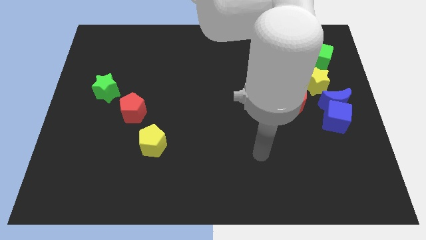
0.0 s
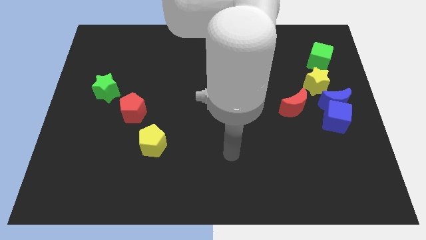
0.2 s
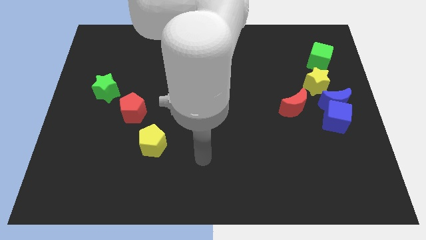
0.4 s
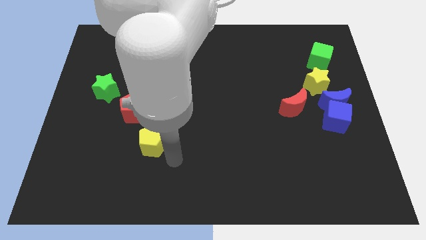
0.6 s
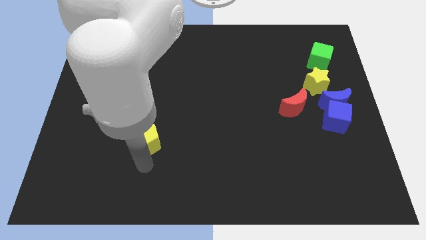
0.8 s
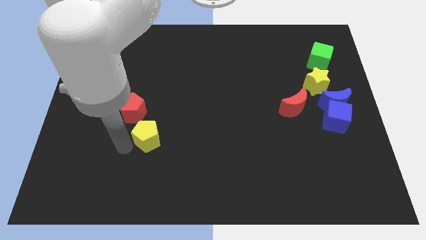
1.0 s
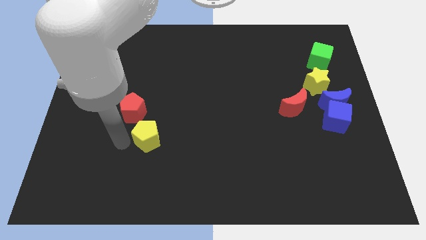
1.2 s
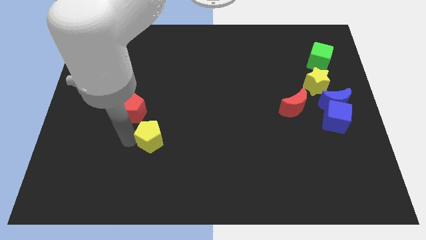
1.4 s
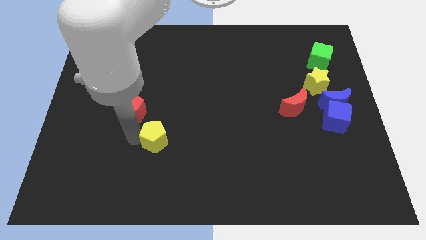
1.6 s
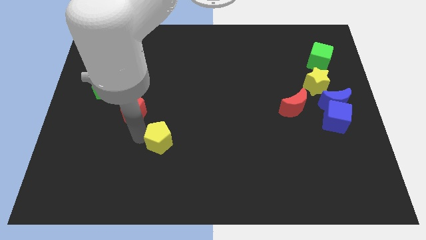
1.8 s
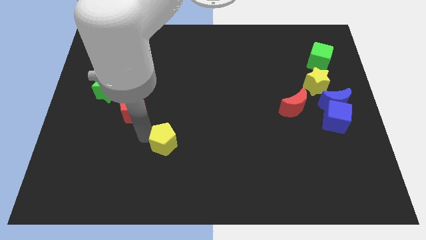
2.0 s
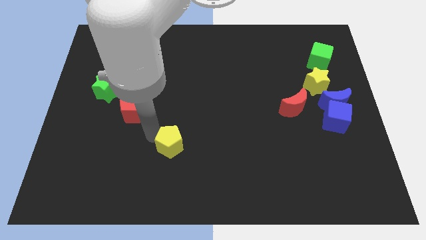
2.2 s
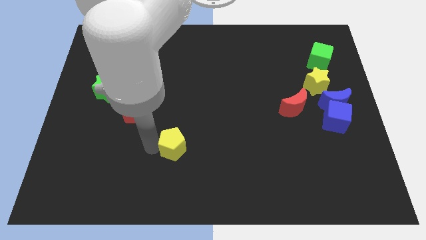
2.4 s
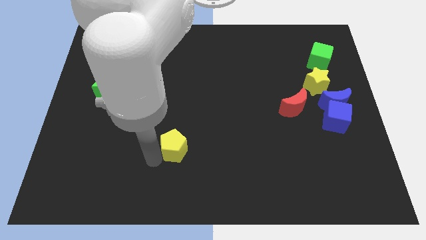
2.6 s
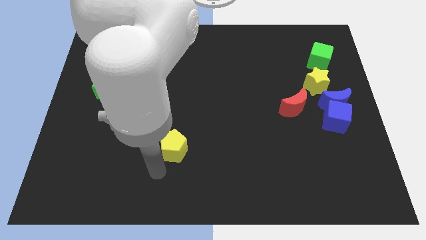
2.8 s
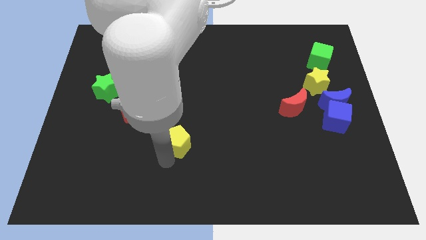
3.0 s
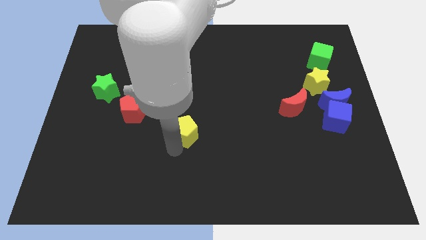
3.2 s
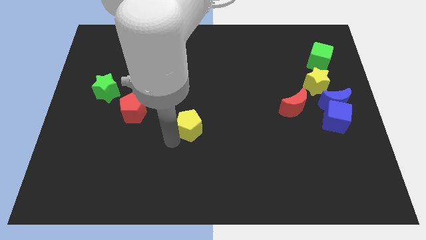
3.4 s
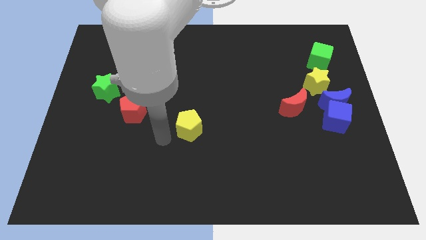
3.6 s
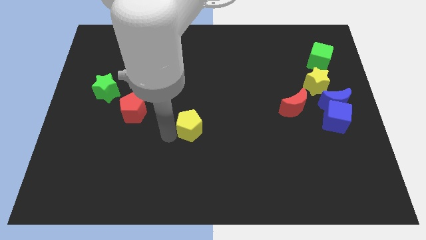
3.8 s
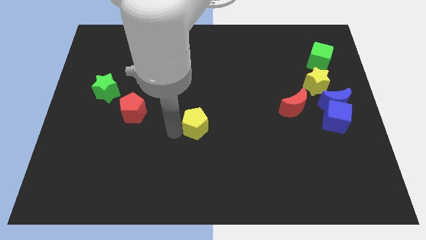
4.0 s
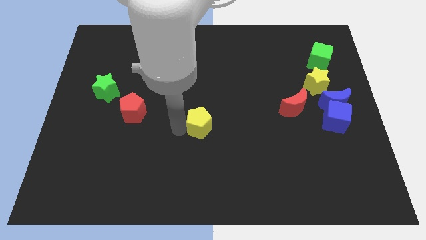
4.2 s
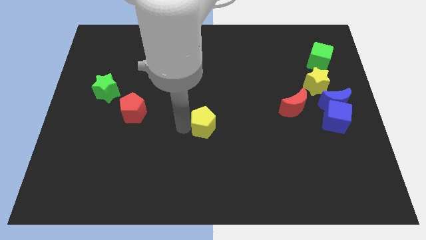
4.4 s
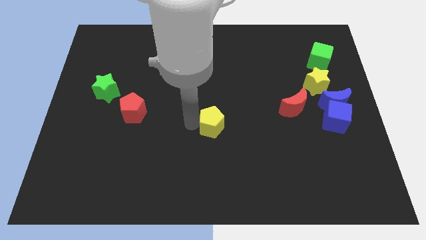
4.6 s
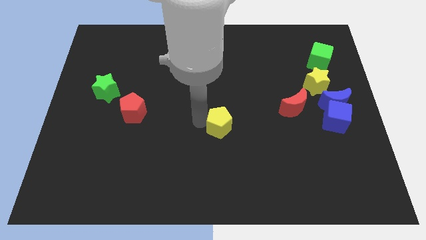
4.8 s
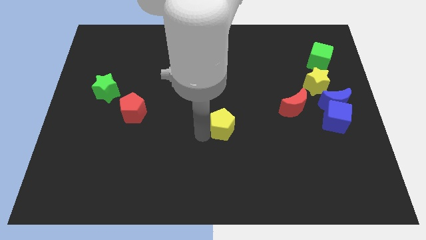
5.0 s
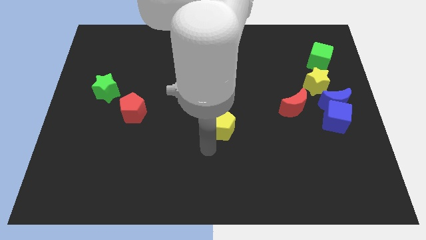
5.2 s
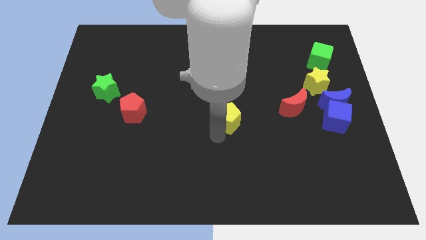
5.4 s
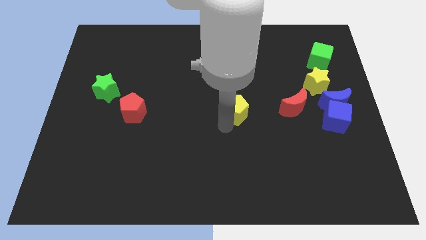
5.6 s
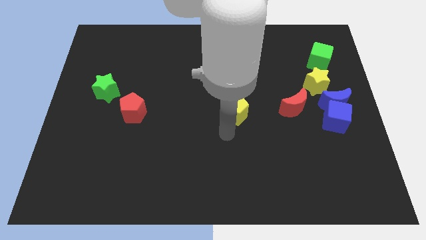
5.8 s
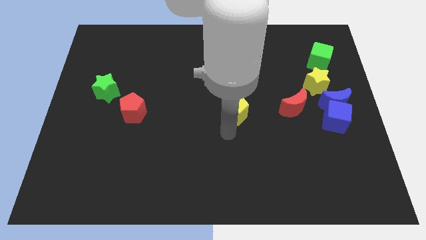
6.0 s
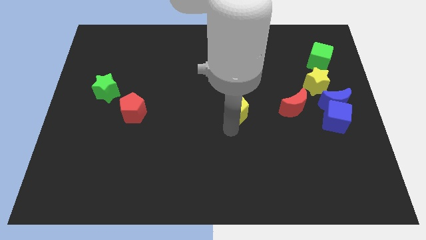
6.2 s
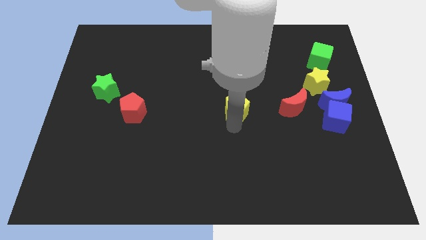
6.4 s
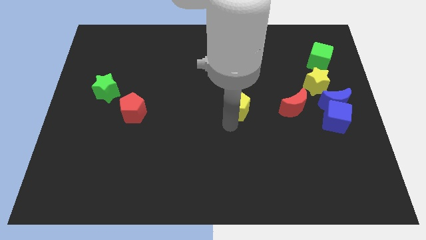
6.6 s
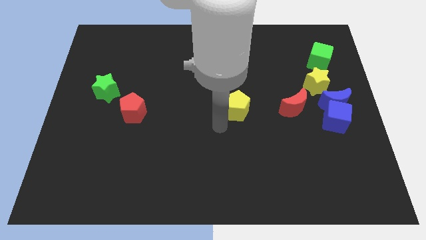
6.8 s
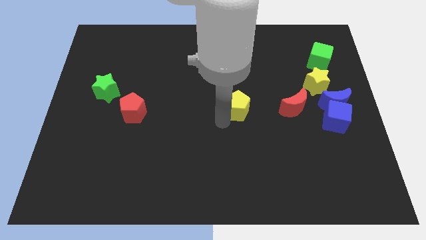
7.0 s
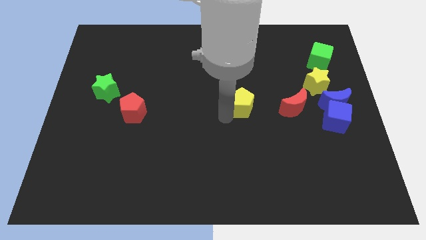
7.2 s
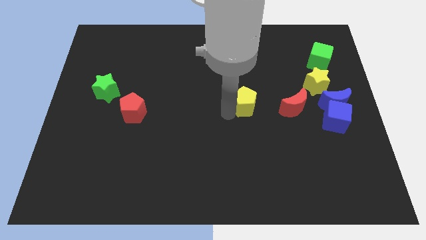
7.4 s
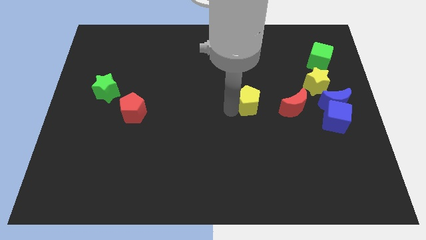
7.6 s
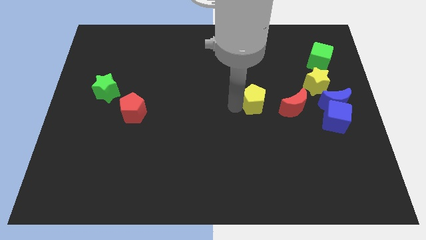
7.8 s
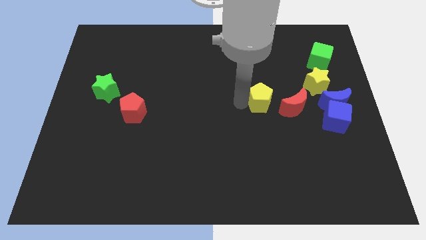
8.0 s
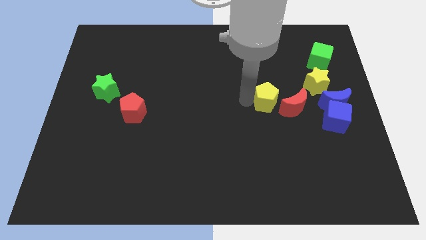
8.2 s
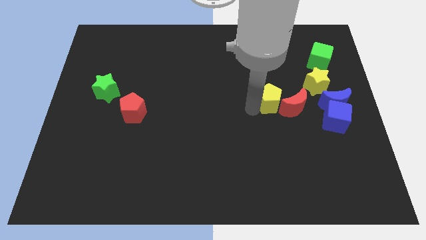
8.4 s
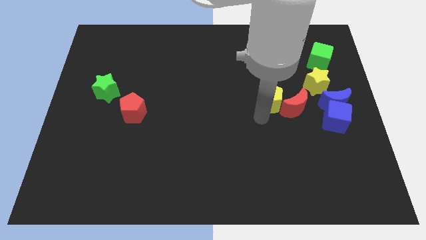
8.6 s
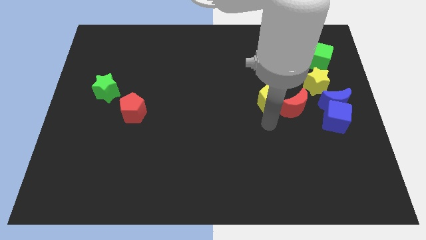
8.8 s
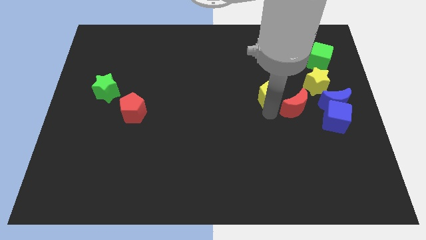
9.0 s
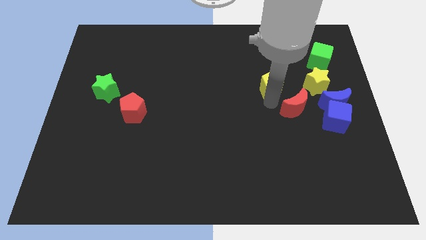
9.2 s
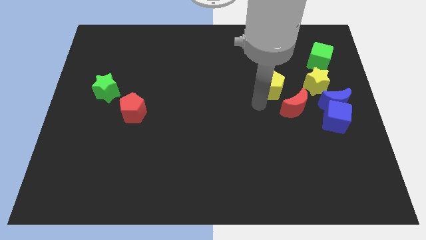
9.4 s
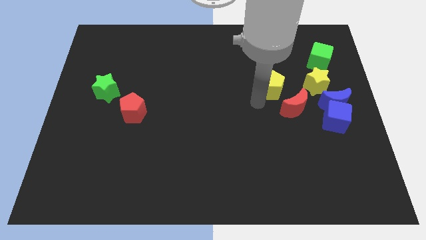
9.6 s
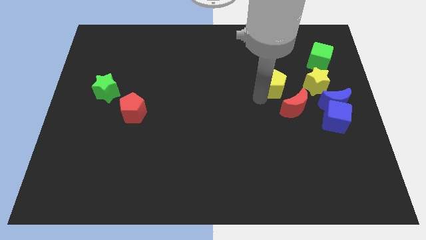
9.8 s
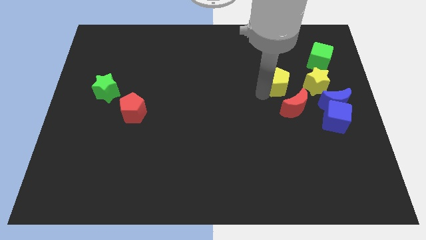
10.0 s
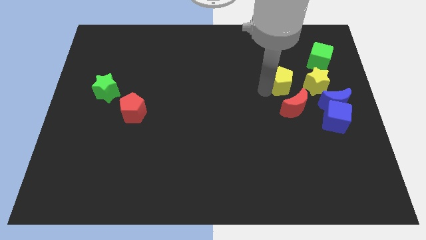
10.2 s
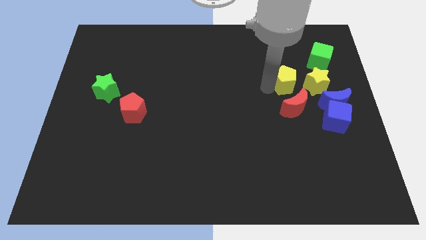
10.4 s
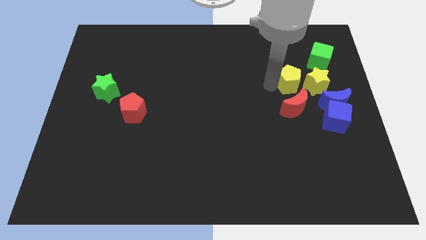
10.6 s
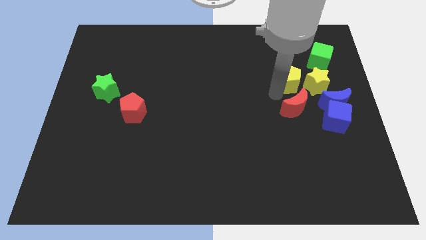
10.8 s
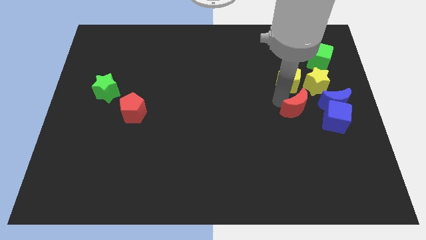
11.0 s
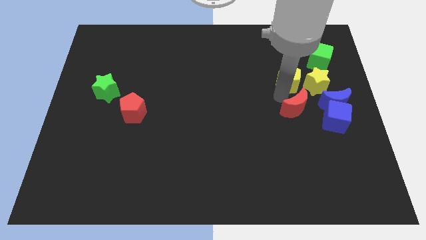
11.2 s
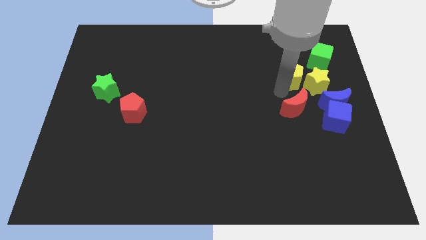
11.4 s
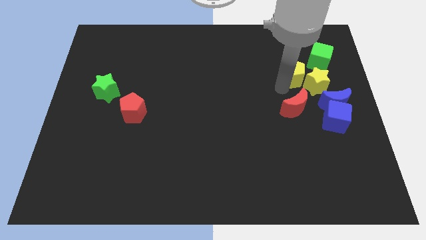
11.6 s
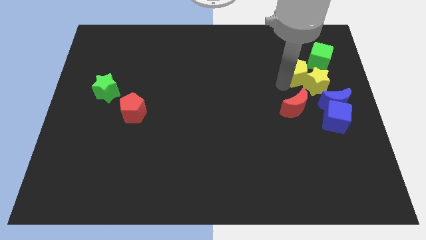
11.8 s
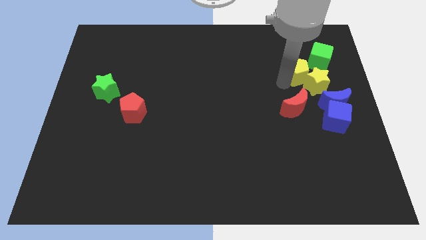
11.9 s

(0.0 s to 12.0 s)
put the yellow pentagon above the yellow star
